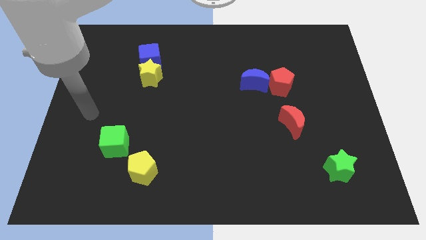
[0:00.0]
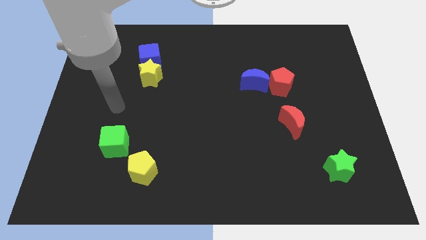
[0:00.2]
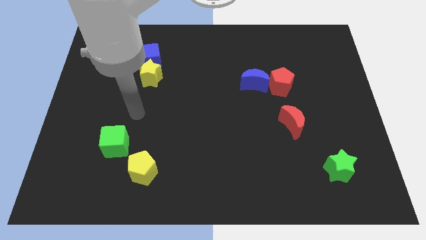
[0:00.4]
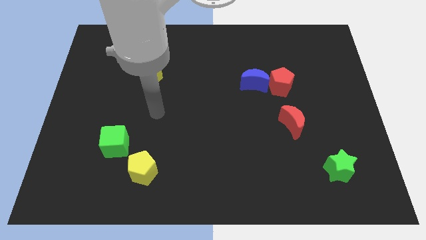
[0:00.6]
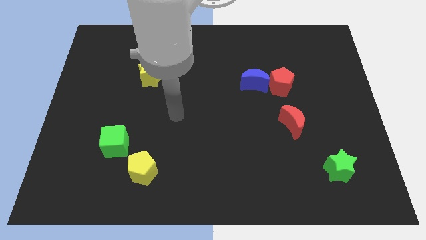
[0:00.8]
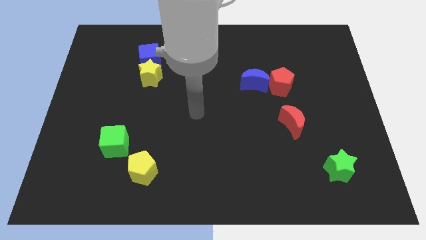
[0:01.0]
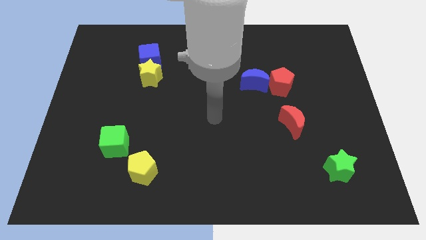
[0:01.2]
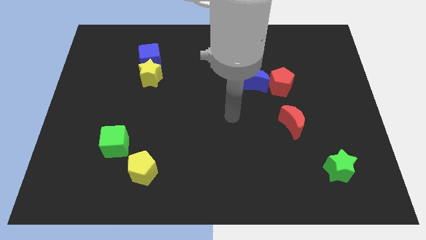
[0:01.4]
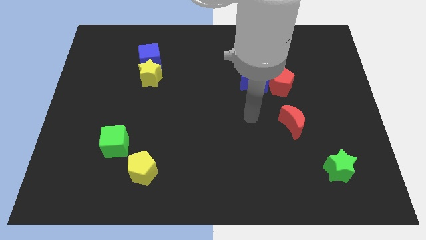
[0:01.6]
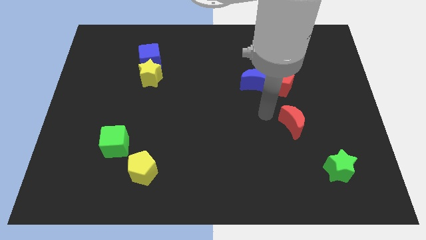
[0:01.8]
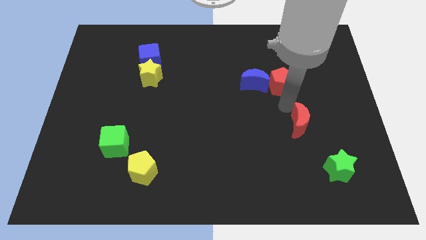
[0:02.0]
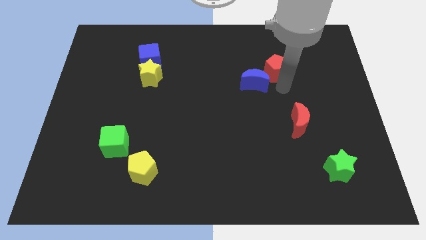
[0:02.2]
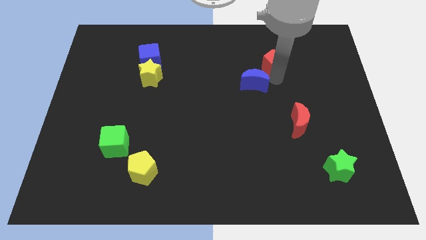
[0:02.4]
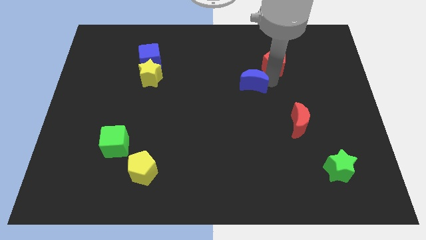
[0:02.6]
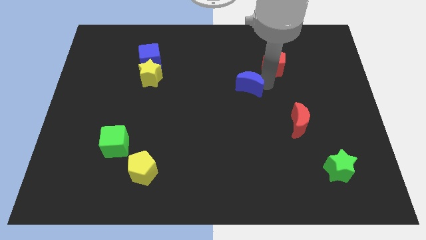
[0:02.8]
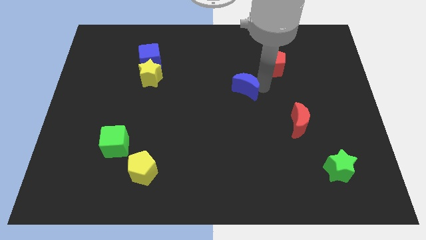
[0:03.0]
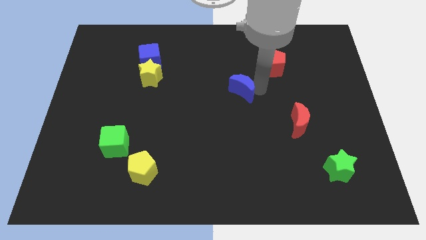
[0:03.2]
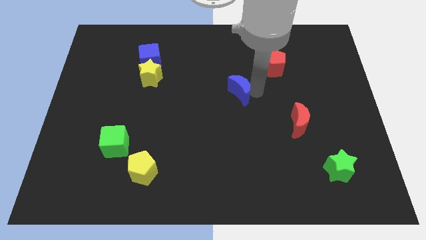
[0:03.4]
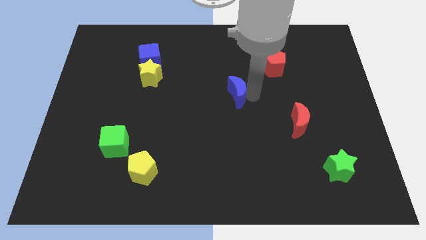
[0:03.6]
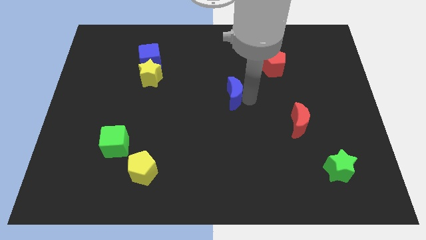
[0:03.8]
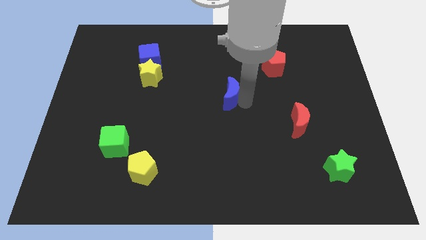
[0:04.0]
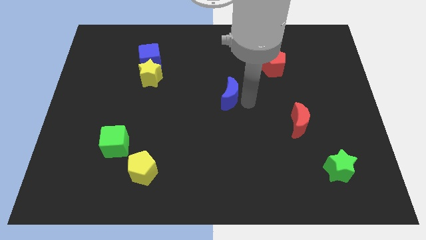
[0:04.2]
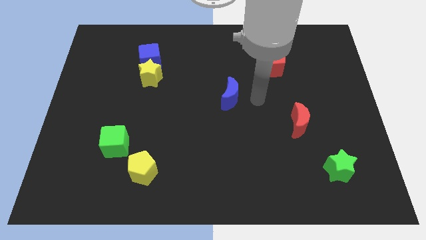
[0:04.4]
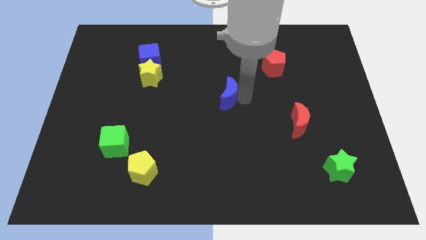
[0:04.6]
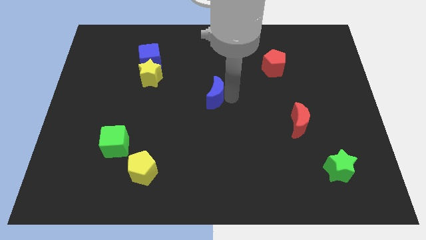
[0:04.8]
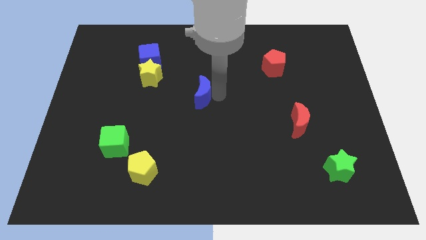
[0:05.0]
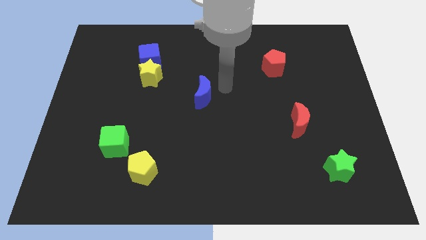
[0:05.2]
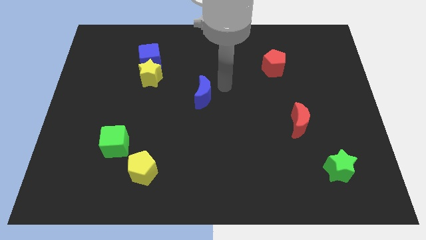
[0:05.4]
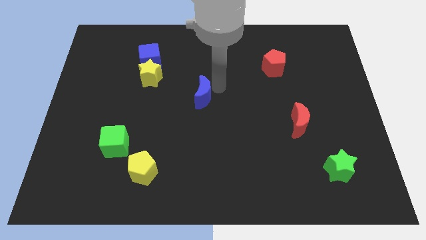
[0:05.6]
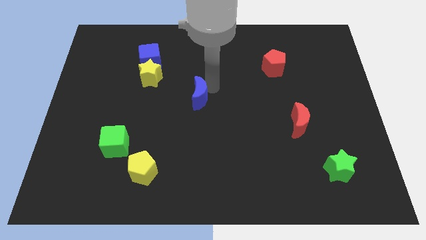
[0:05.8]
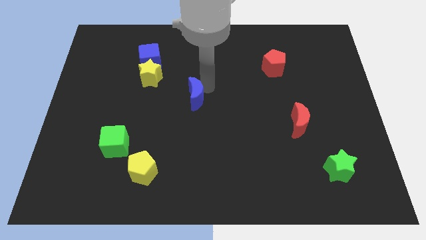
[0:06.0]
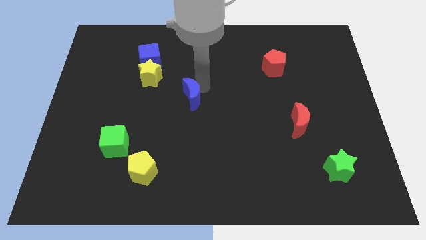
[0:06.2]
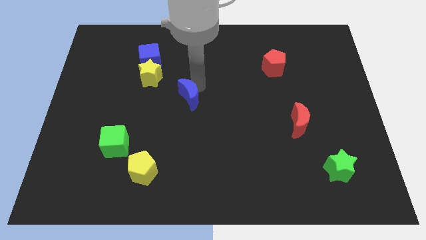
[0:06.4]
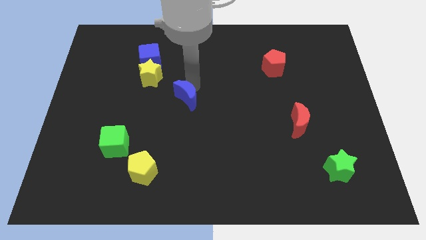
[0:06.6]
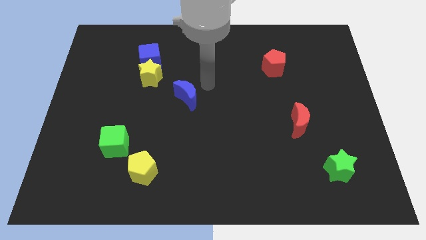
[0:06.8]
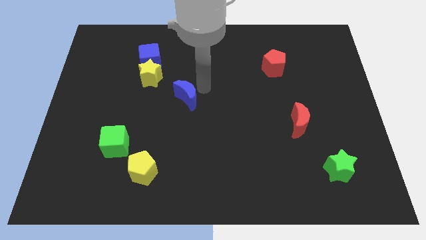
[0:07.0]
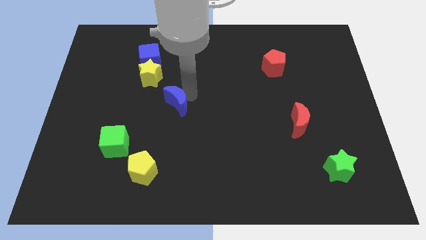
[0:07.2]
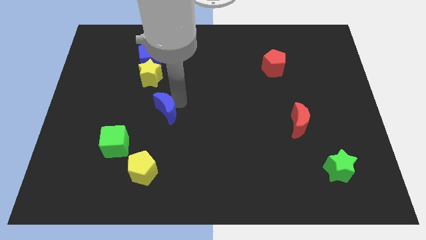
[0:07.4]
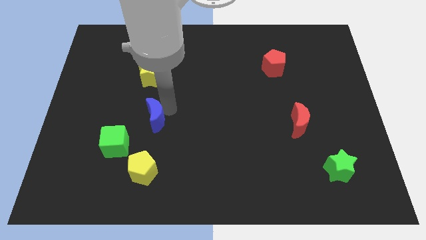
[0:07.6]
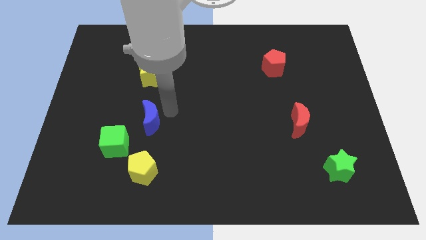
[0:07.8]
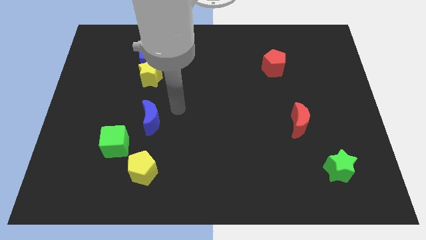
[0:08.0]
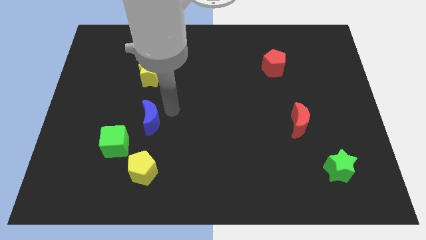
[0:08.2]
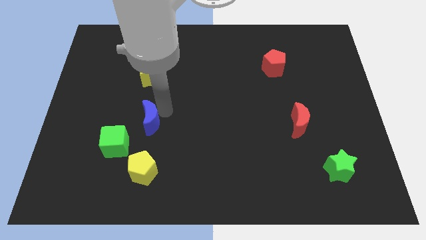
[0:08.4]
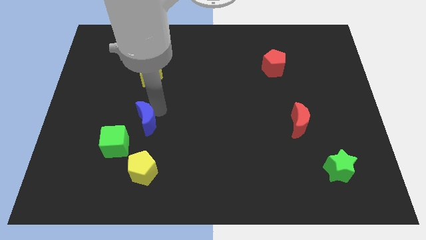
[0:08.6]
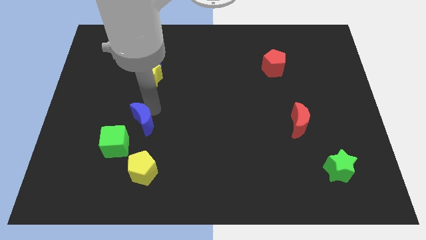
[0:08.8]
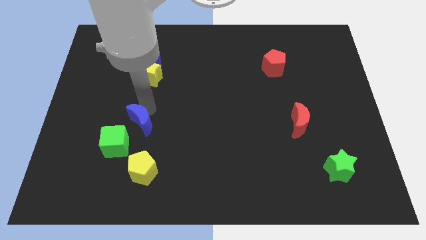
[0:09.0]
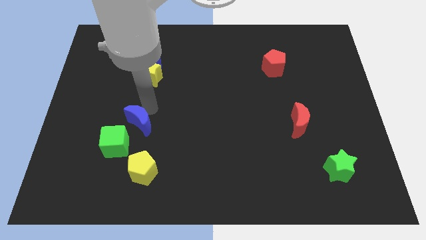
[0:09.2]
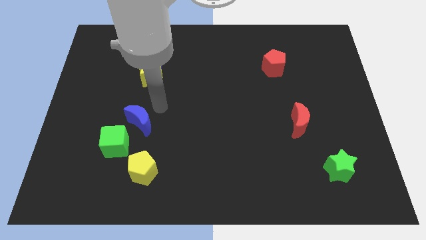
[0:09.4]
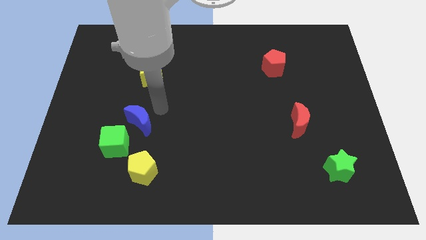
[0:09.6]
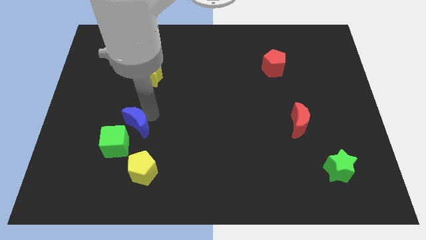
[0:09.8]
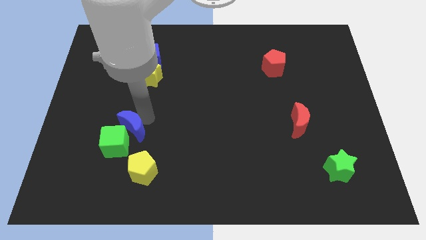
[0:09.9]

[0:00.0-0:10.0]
move the blue moon close to the green cube
